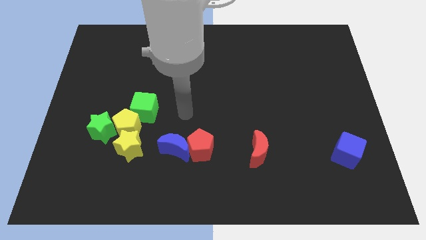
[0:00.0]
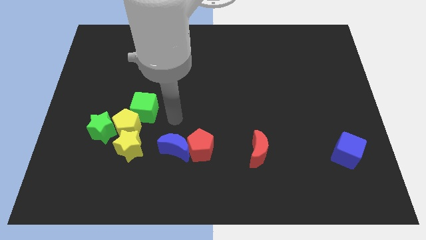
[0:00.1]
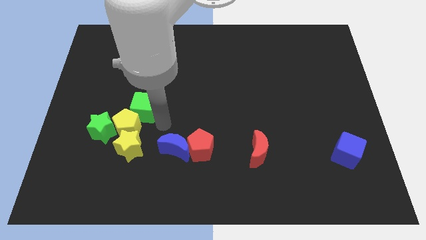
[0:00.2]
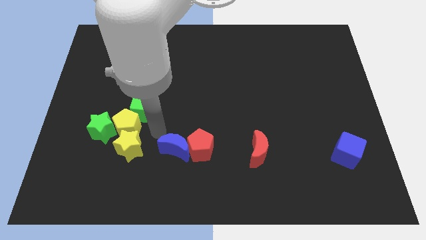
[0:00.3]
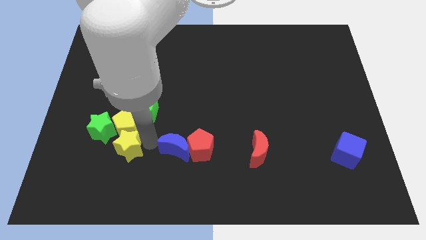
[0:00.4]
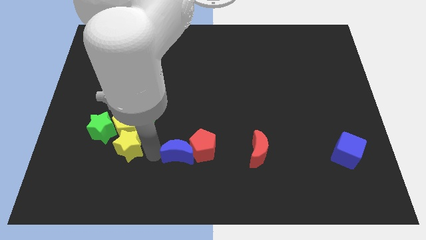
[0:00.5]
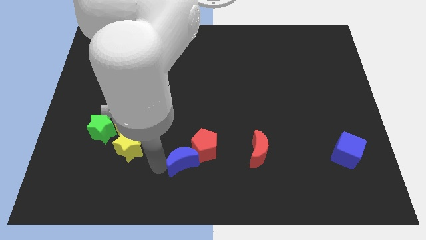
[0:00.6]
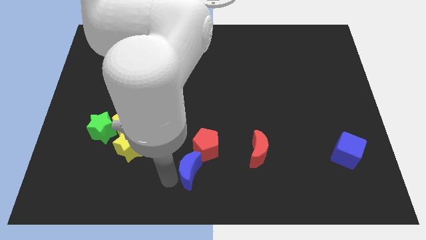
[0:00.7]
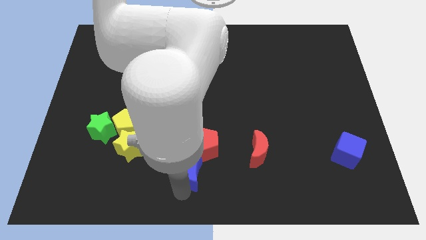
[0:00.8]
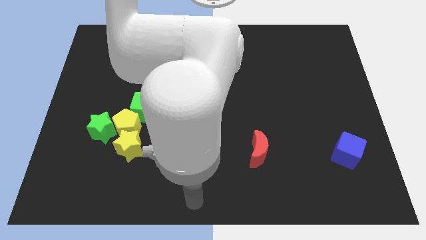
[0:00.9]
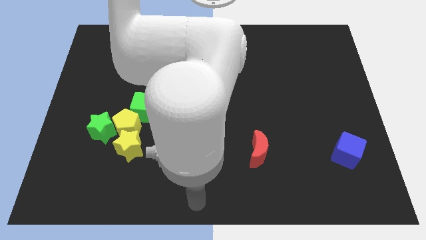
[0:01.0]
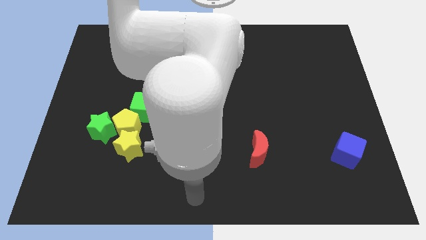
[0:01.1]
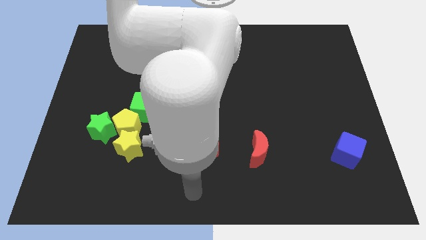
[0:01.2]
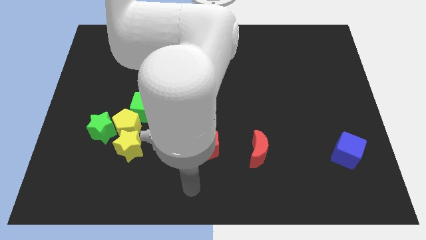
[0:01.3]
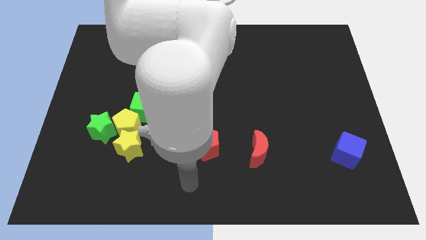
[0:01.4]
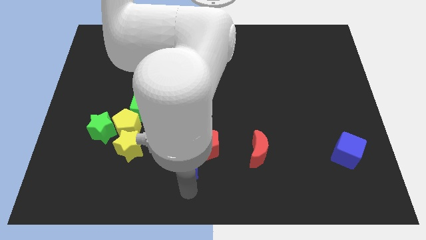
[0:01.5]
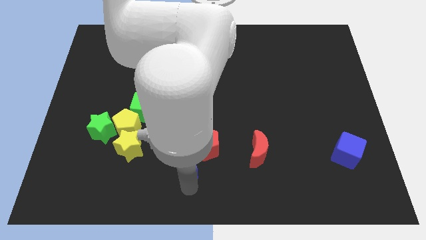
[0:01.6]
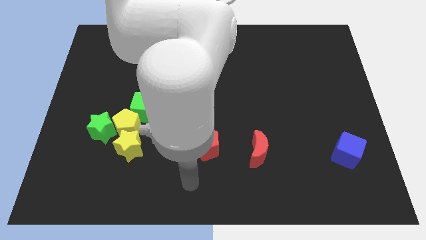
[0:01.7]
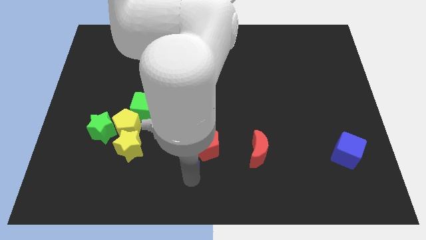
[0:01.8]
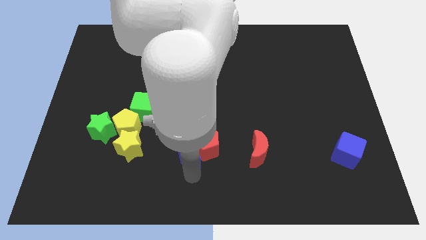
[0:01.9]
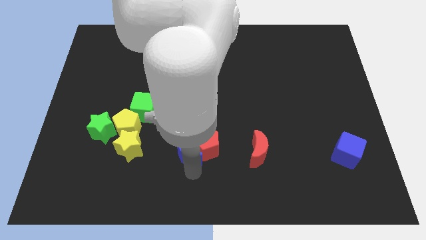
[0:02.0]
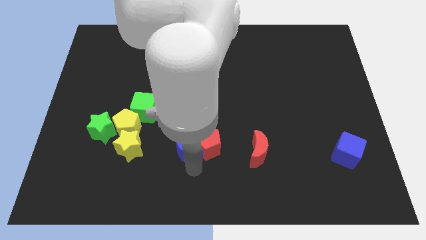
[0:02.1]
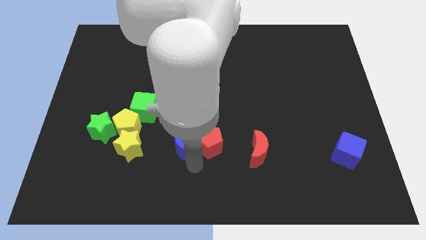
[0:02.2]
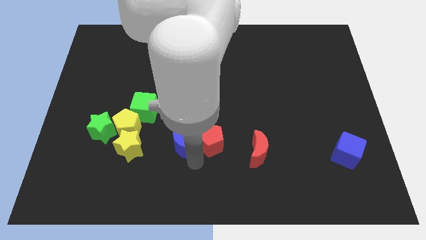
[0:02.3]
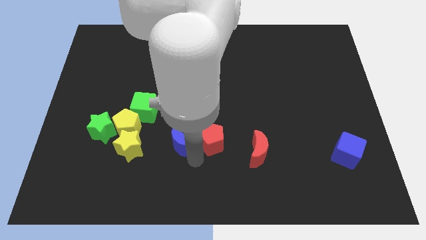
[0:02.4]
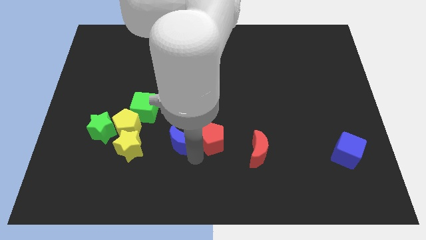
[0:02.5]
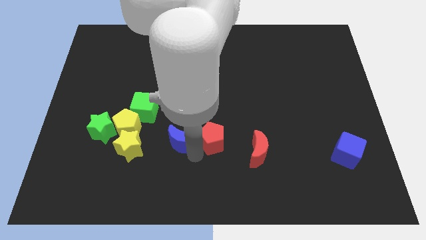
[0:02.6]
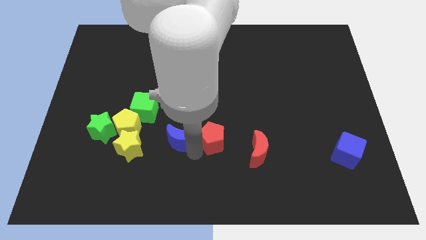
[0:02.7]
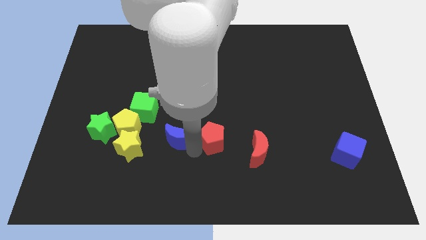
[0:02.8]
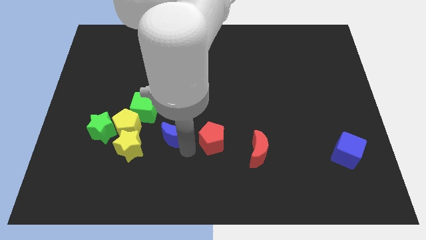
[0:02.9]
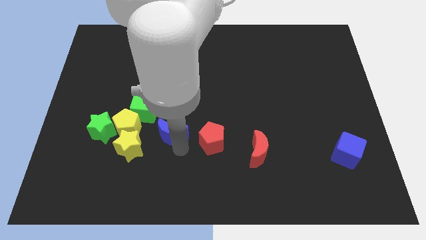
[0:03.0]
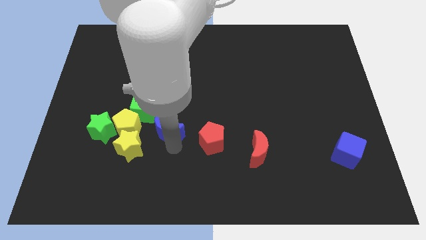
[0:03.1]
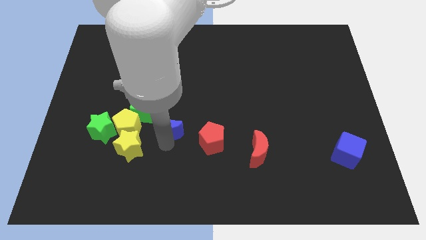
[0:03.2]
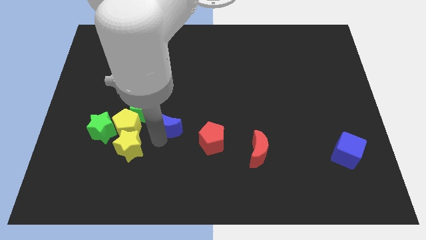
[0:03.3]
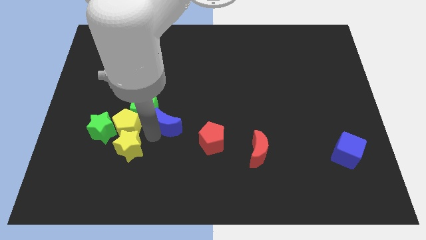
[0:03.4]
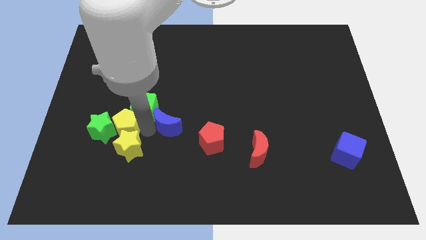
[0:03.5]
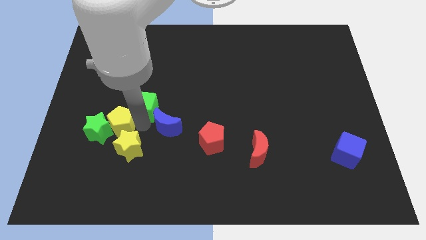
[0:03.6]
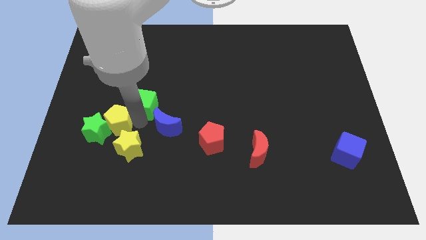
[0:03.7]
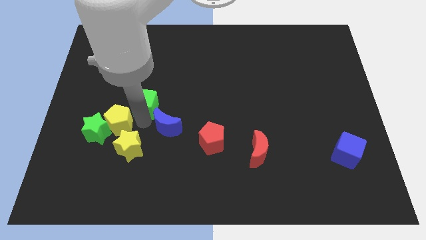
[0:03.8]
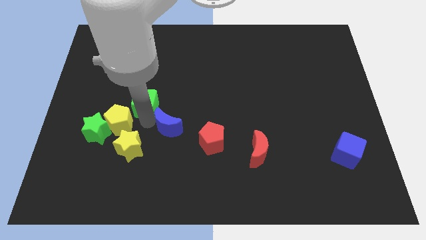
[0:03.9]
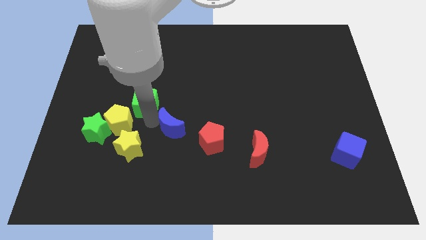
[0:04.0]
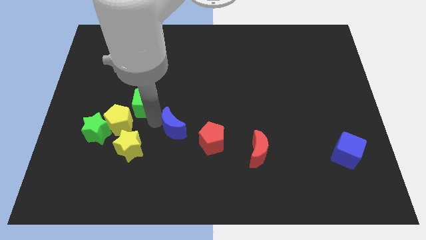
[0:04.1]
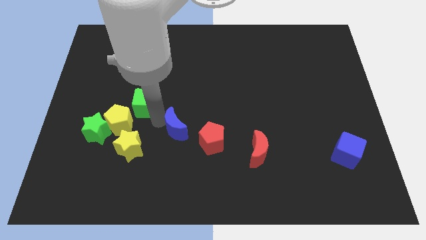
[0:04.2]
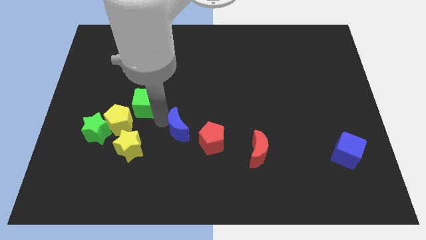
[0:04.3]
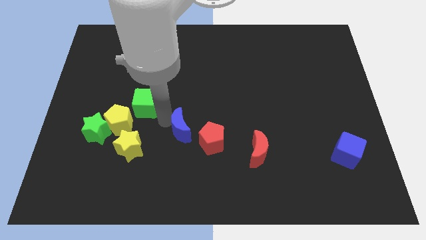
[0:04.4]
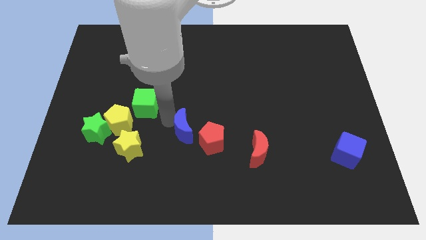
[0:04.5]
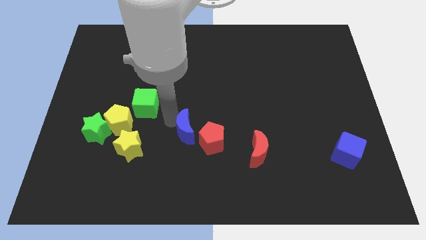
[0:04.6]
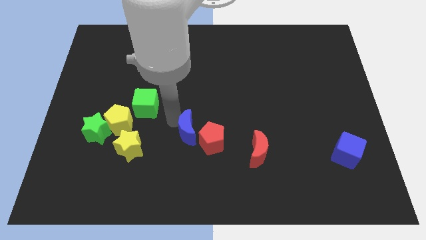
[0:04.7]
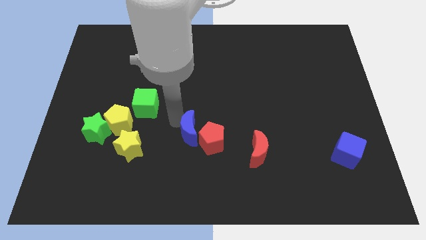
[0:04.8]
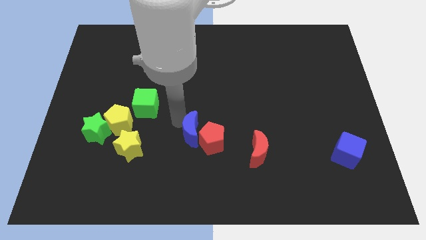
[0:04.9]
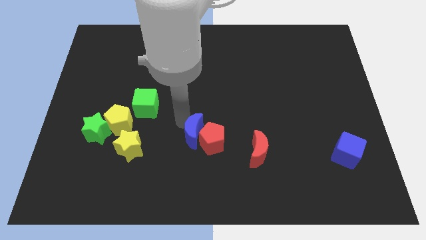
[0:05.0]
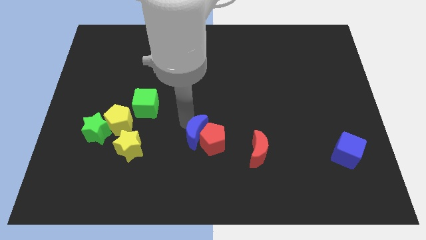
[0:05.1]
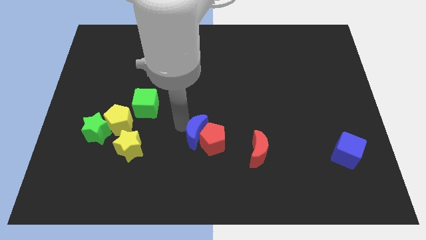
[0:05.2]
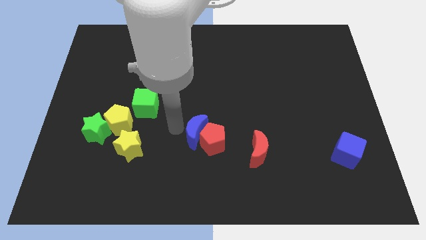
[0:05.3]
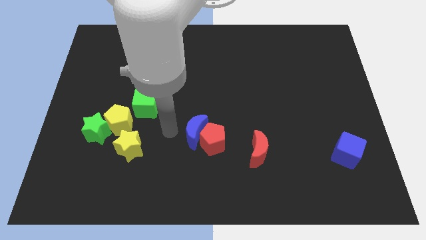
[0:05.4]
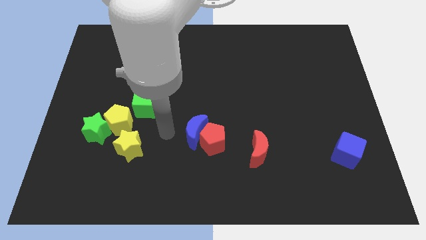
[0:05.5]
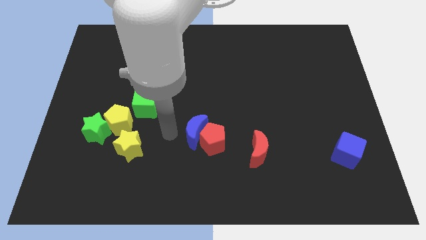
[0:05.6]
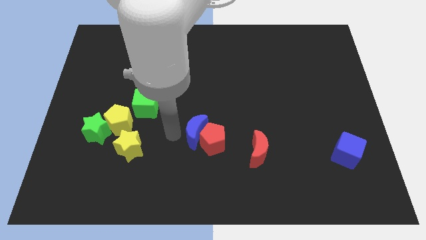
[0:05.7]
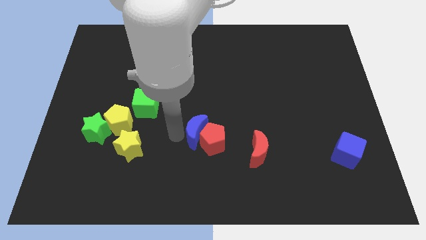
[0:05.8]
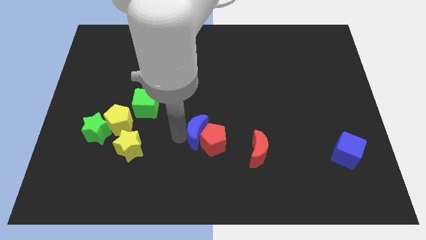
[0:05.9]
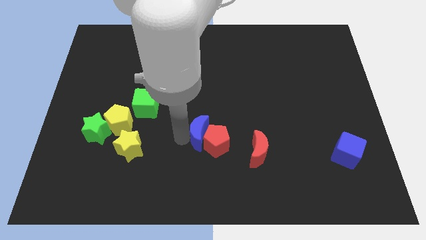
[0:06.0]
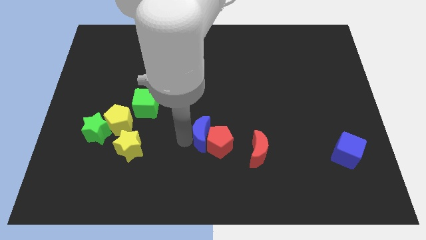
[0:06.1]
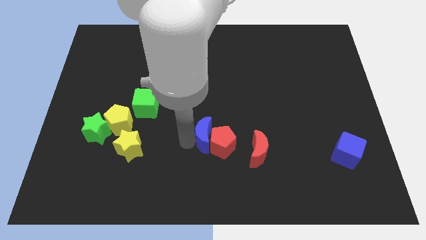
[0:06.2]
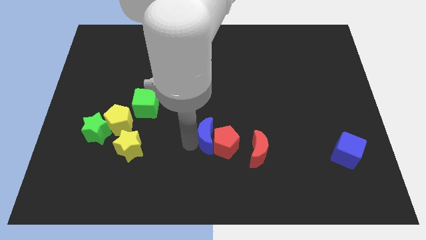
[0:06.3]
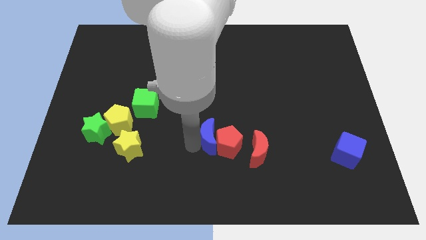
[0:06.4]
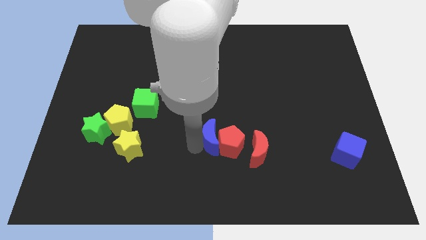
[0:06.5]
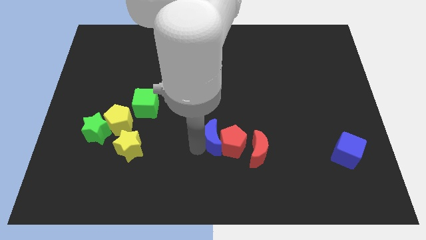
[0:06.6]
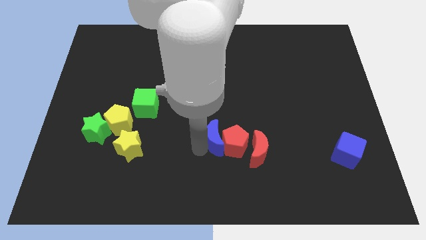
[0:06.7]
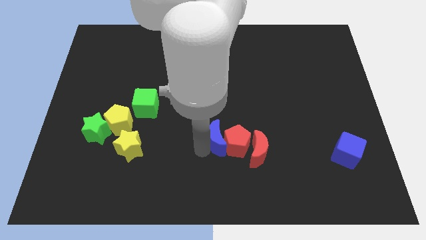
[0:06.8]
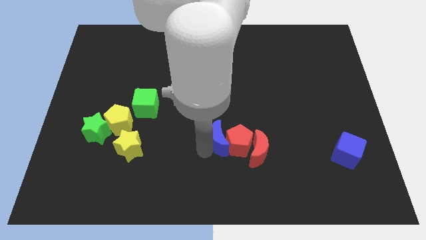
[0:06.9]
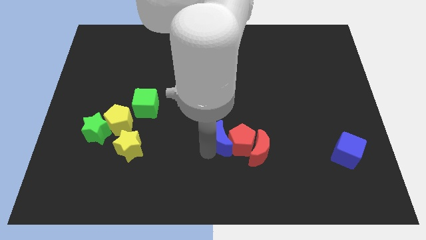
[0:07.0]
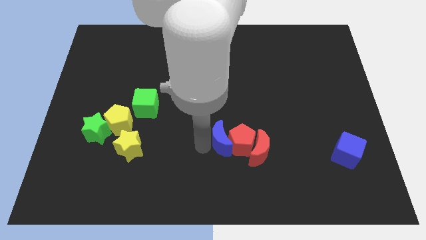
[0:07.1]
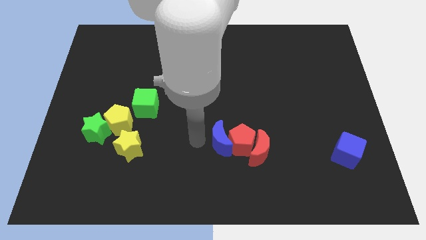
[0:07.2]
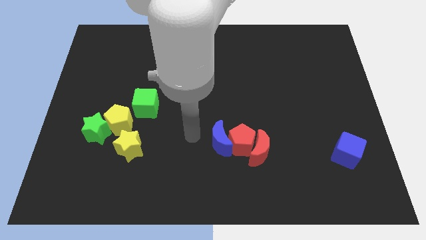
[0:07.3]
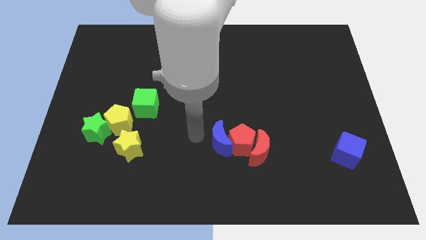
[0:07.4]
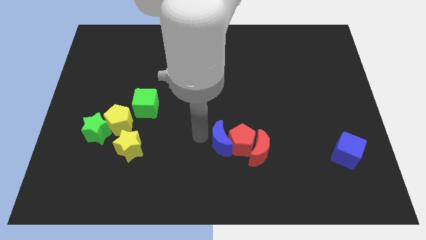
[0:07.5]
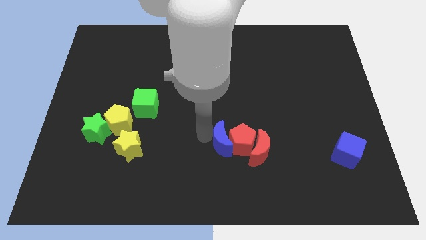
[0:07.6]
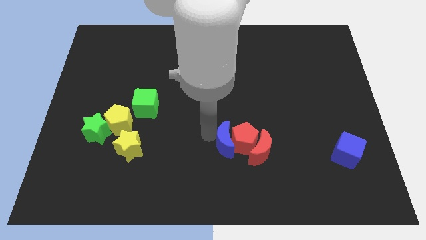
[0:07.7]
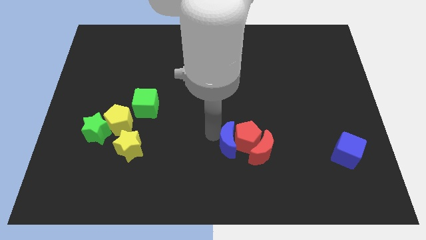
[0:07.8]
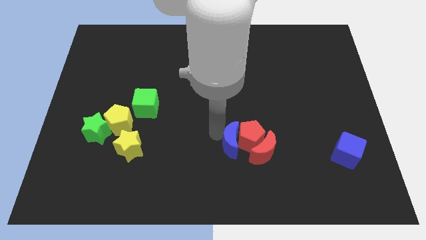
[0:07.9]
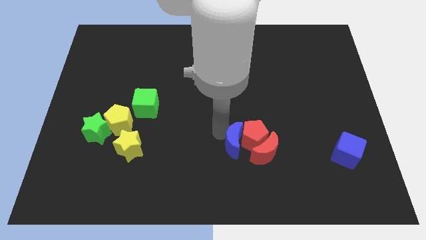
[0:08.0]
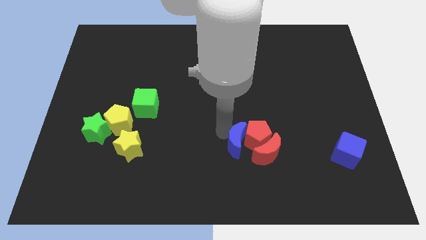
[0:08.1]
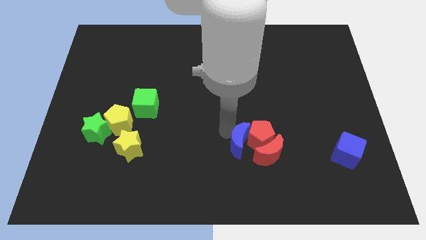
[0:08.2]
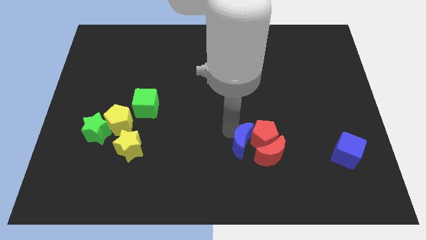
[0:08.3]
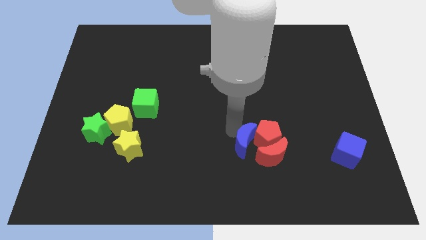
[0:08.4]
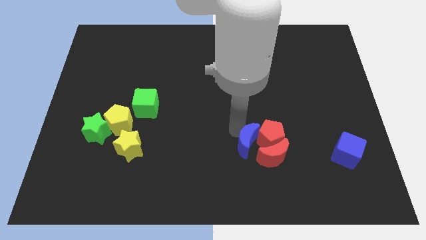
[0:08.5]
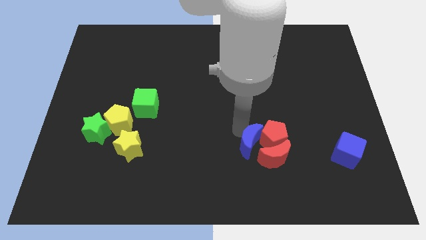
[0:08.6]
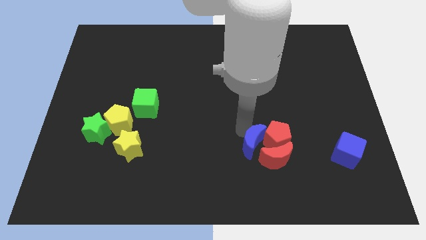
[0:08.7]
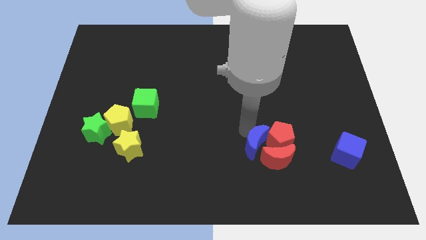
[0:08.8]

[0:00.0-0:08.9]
move the blue moon close to the red moon
